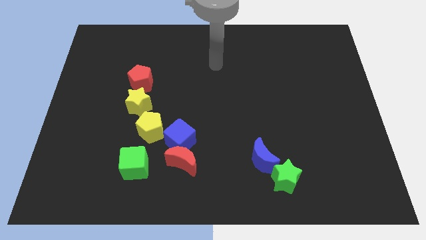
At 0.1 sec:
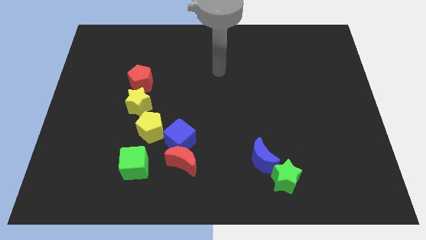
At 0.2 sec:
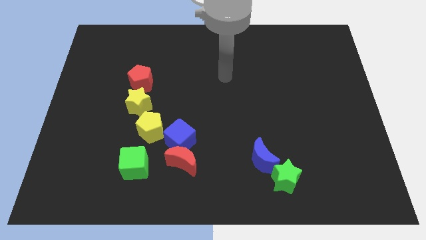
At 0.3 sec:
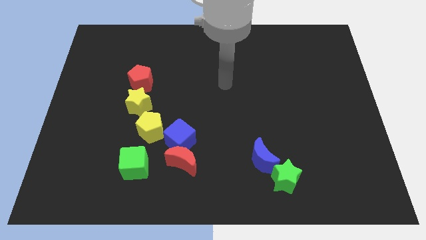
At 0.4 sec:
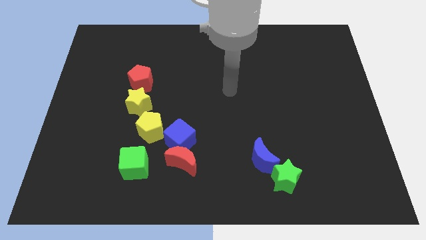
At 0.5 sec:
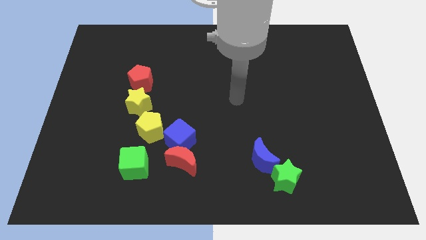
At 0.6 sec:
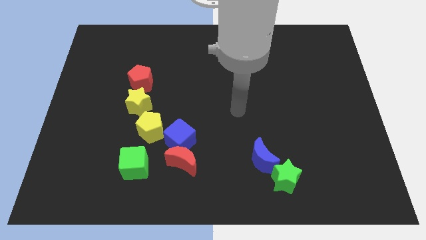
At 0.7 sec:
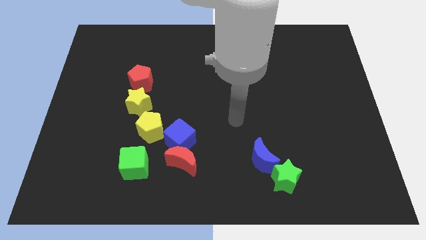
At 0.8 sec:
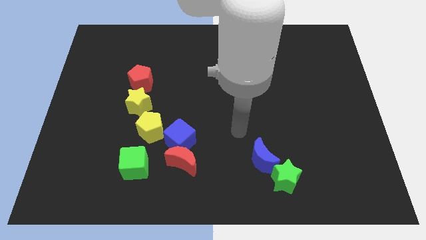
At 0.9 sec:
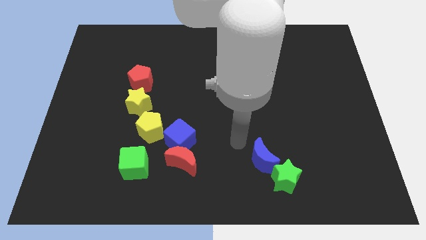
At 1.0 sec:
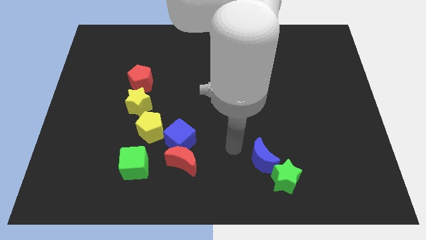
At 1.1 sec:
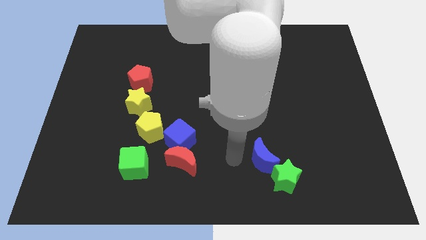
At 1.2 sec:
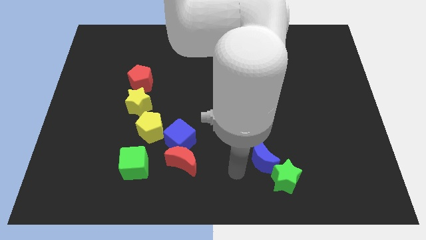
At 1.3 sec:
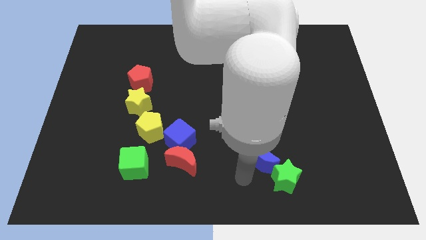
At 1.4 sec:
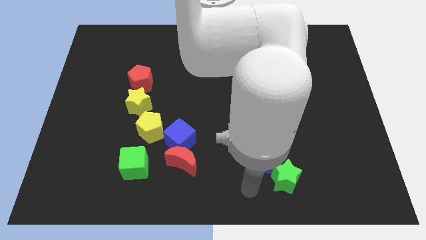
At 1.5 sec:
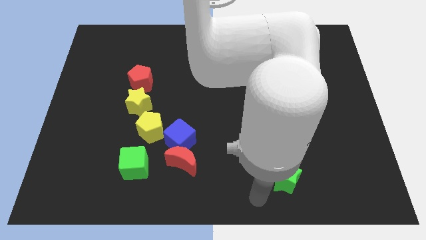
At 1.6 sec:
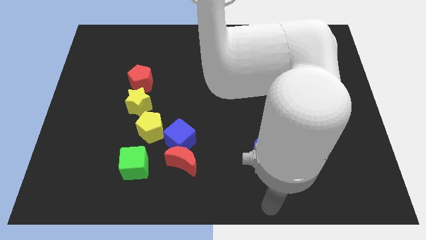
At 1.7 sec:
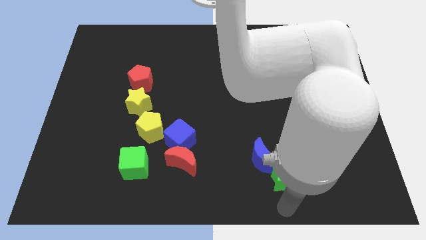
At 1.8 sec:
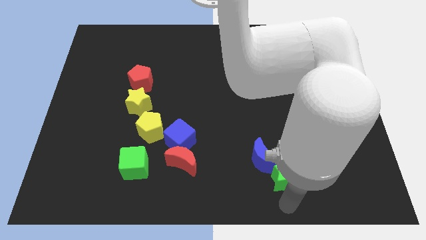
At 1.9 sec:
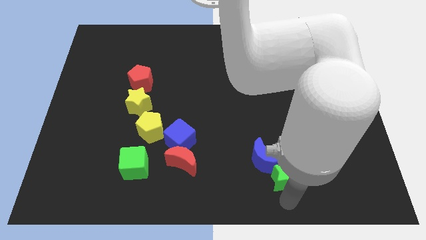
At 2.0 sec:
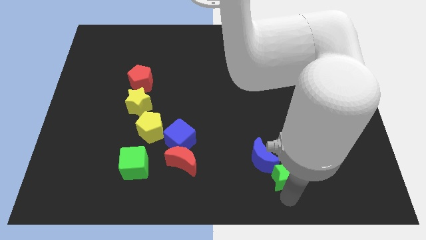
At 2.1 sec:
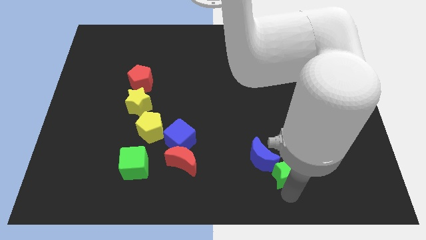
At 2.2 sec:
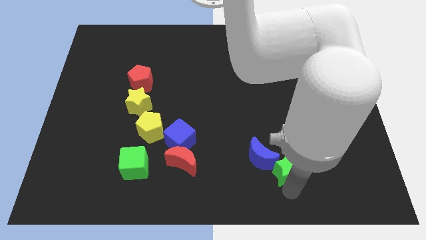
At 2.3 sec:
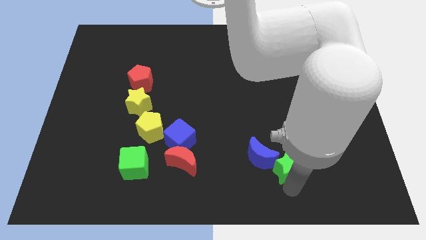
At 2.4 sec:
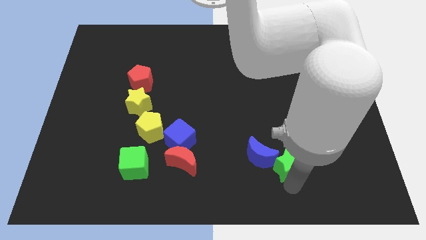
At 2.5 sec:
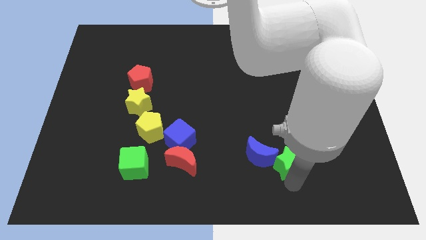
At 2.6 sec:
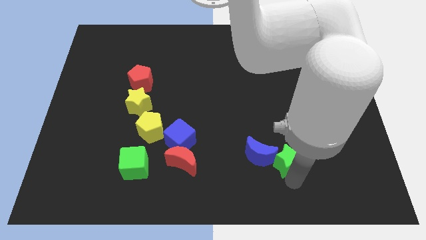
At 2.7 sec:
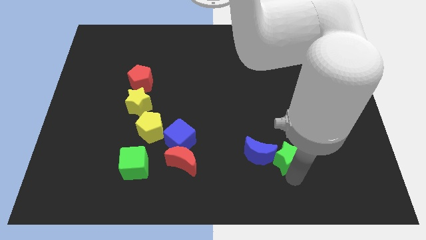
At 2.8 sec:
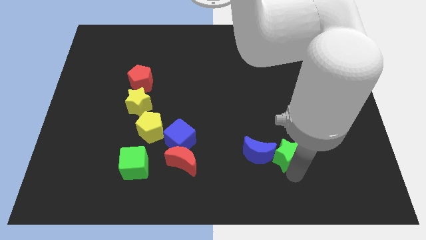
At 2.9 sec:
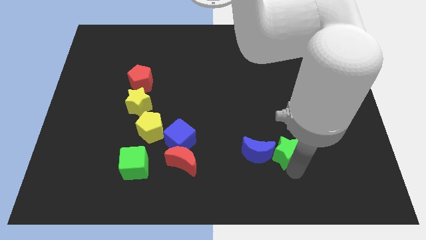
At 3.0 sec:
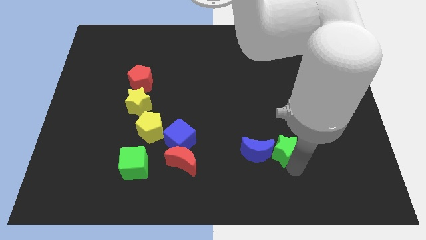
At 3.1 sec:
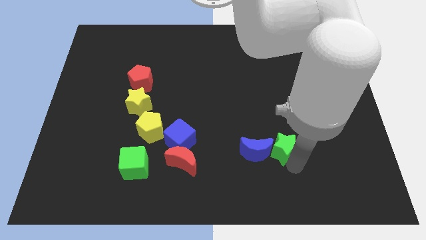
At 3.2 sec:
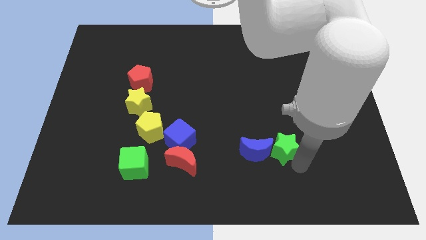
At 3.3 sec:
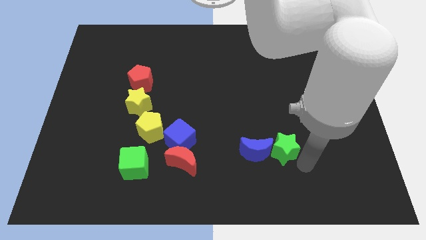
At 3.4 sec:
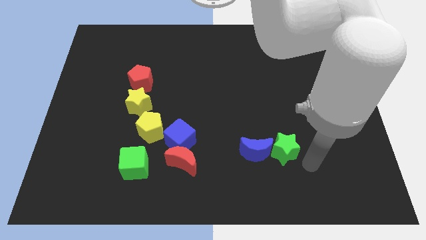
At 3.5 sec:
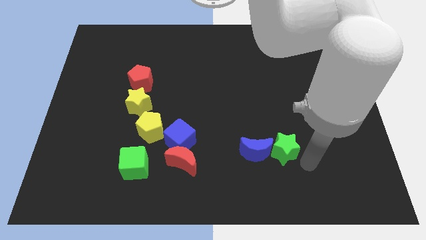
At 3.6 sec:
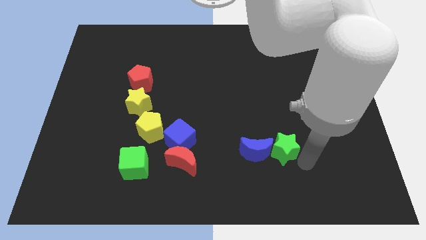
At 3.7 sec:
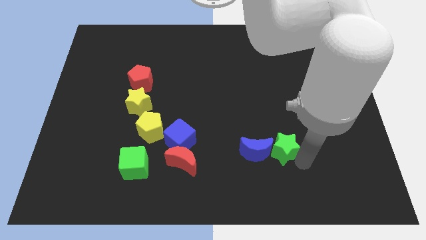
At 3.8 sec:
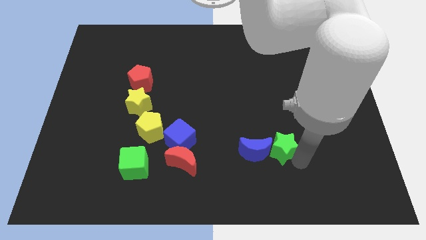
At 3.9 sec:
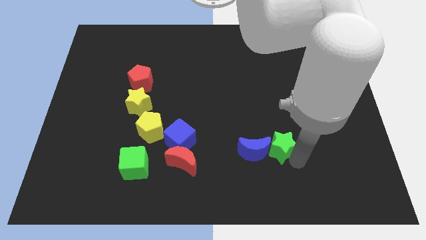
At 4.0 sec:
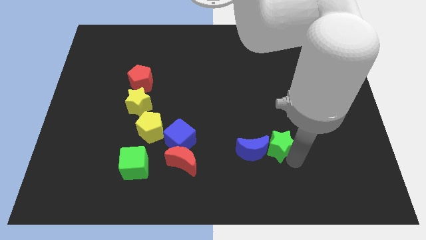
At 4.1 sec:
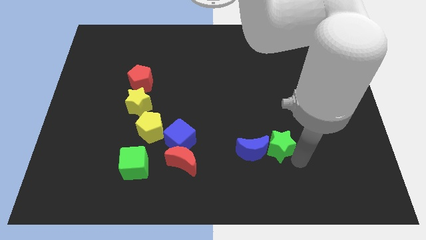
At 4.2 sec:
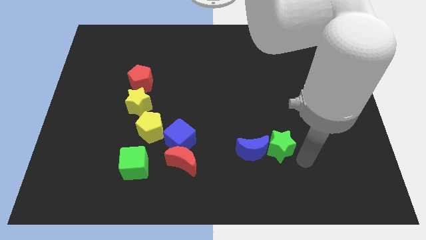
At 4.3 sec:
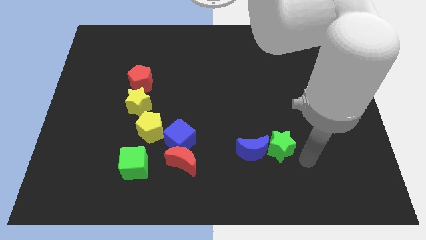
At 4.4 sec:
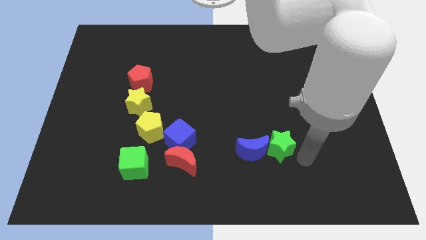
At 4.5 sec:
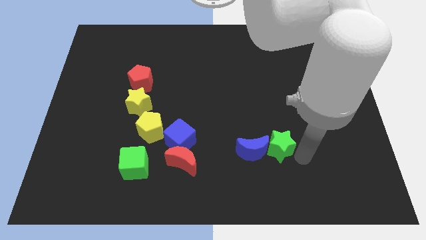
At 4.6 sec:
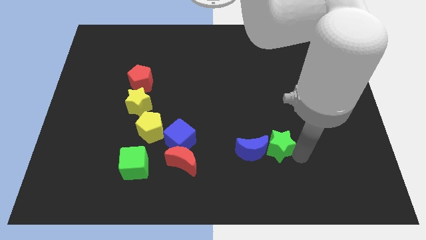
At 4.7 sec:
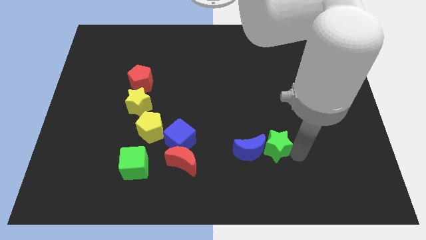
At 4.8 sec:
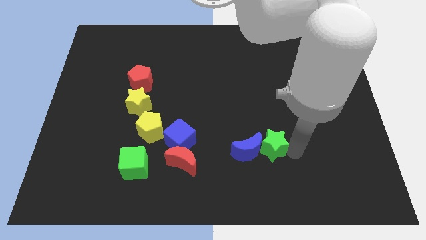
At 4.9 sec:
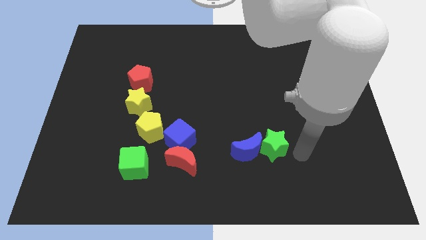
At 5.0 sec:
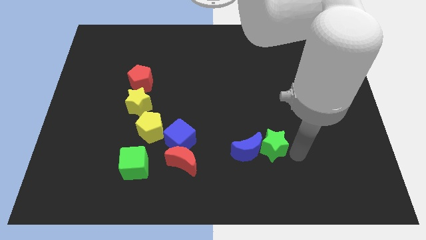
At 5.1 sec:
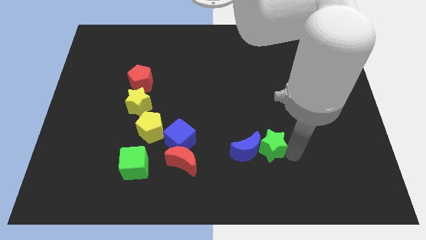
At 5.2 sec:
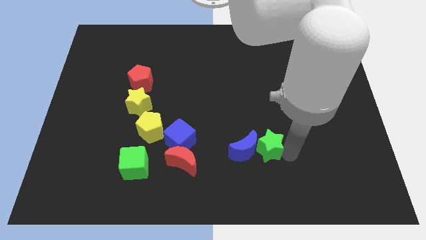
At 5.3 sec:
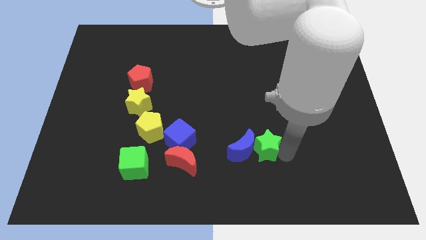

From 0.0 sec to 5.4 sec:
push the green star a bit upwards and to the left

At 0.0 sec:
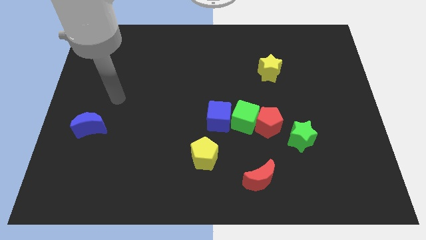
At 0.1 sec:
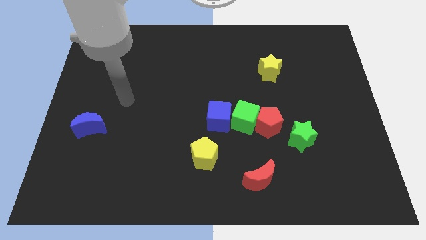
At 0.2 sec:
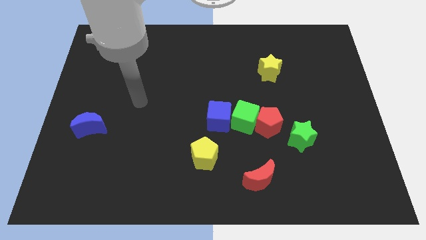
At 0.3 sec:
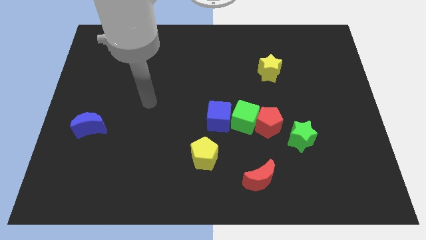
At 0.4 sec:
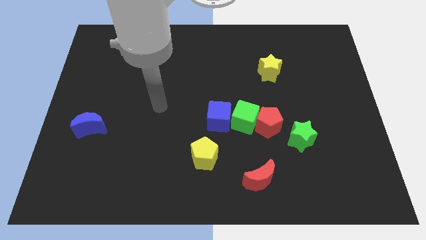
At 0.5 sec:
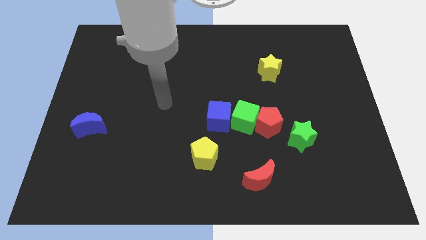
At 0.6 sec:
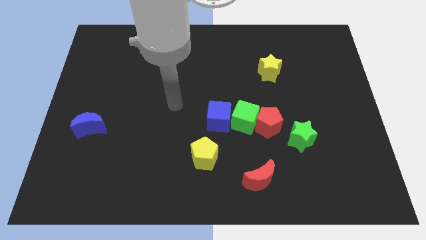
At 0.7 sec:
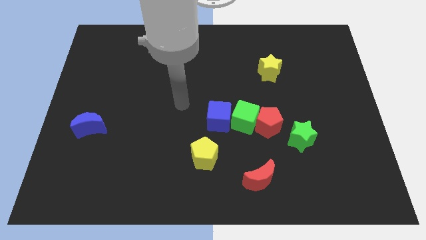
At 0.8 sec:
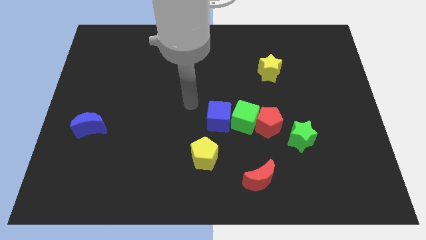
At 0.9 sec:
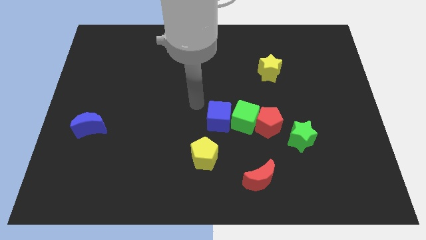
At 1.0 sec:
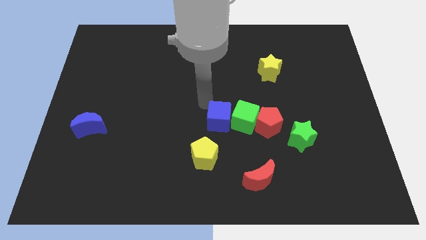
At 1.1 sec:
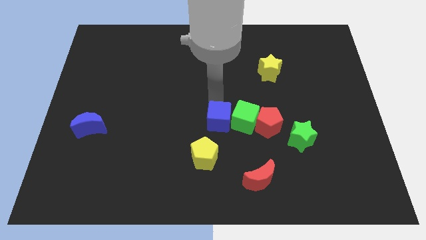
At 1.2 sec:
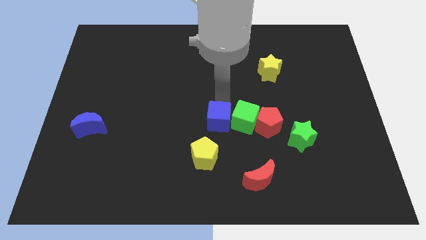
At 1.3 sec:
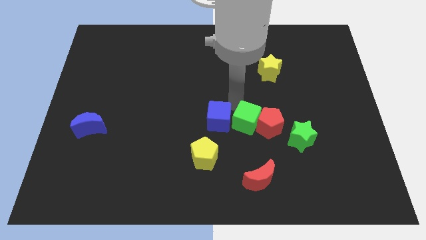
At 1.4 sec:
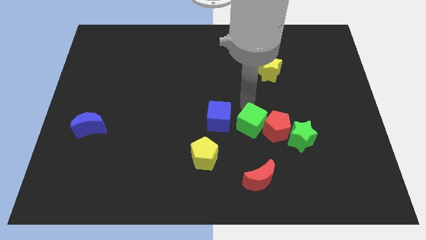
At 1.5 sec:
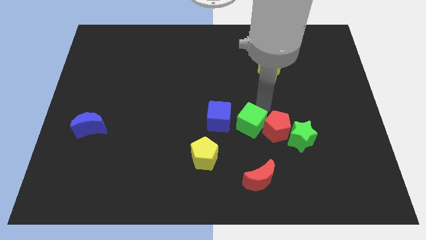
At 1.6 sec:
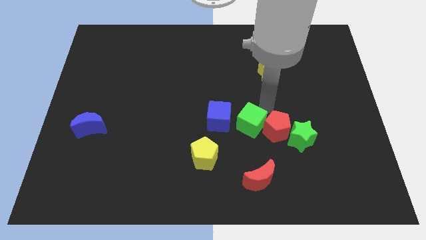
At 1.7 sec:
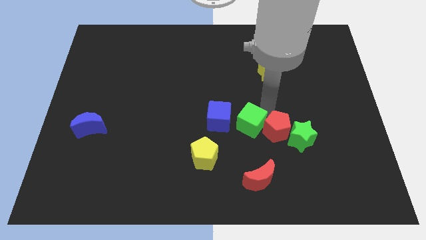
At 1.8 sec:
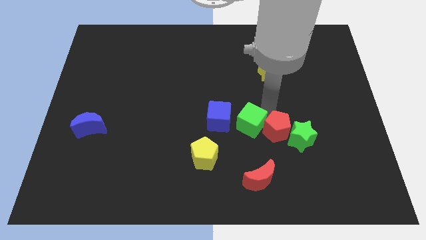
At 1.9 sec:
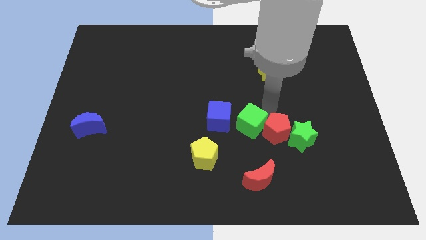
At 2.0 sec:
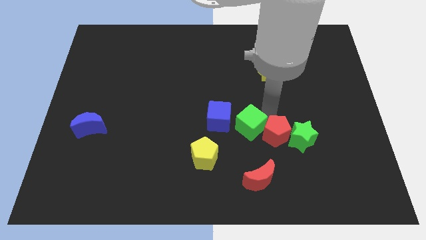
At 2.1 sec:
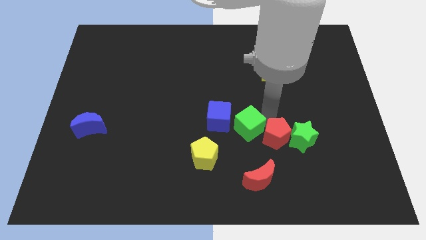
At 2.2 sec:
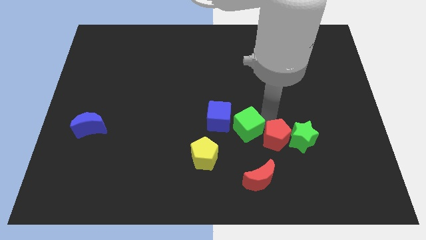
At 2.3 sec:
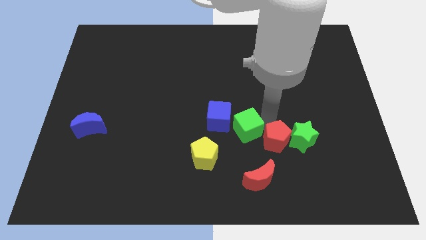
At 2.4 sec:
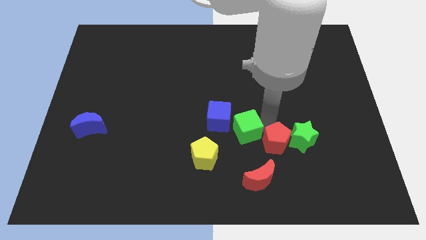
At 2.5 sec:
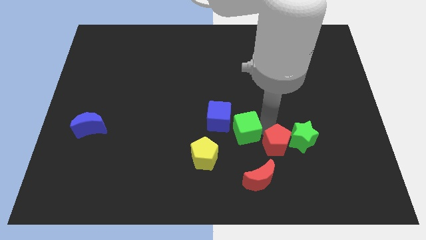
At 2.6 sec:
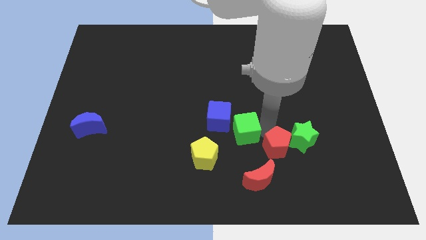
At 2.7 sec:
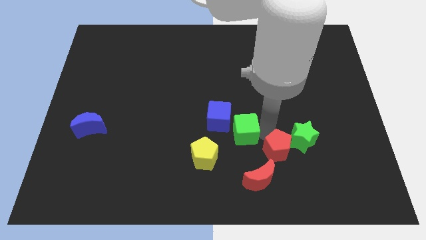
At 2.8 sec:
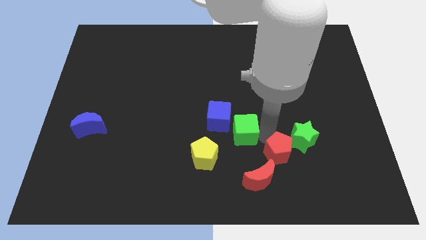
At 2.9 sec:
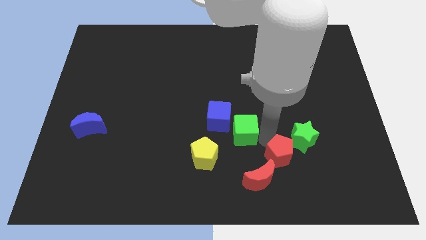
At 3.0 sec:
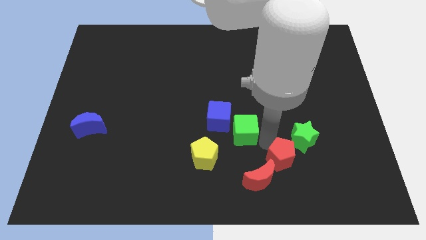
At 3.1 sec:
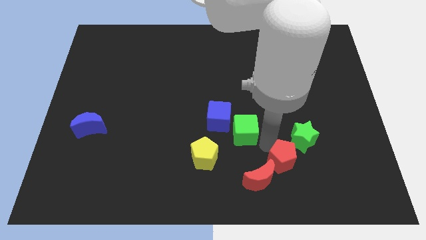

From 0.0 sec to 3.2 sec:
move the red pentagon down and right a little
